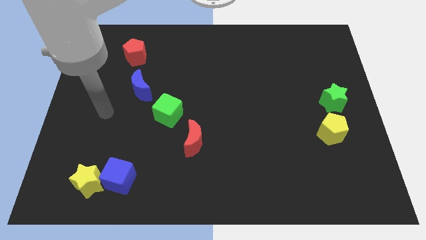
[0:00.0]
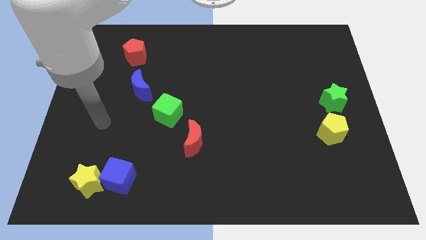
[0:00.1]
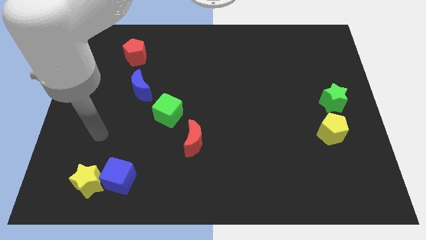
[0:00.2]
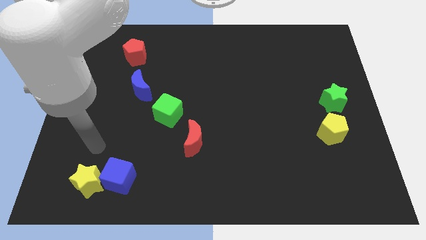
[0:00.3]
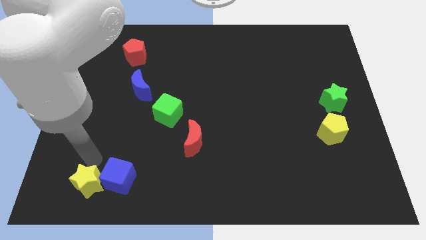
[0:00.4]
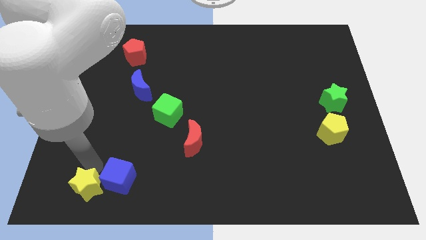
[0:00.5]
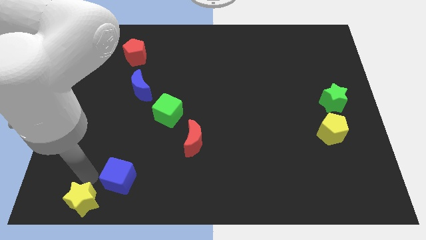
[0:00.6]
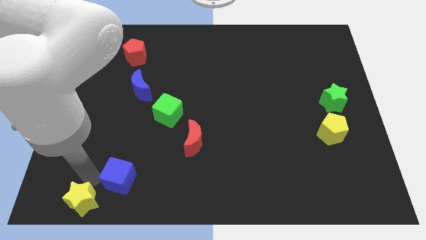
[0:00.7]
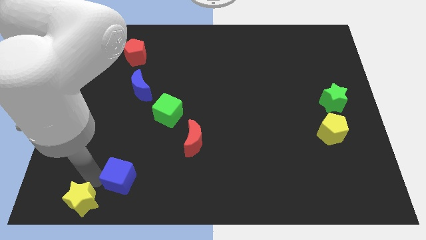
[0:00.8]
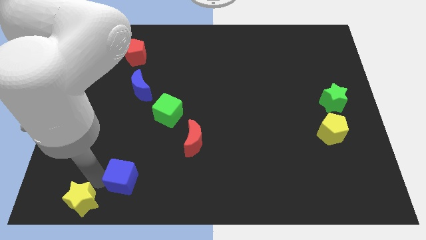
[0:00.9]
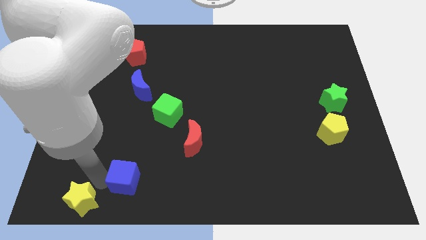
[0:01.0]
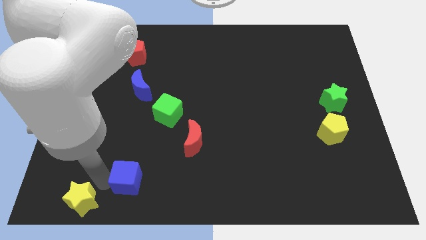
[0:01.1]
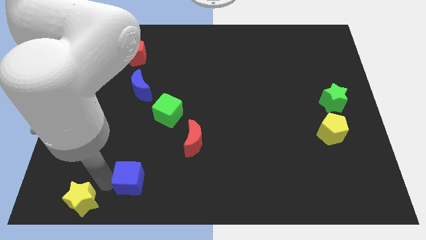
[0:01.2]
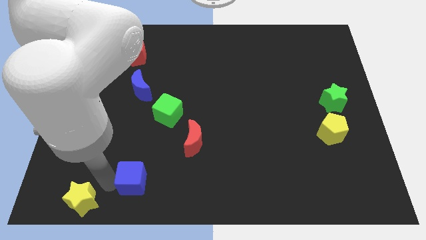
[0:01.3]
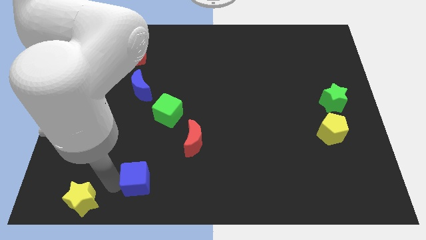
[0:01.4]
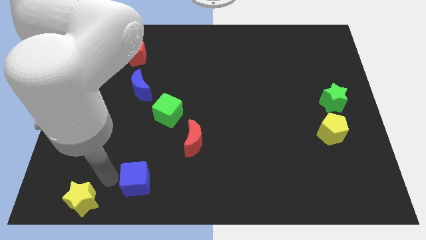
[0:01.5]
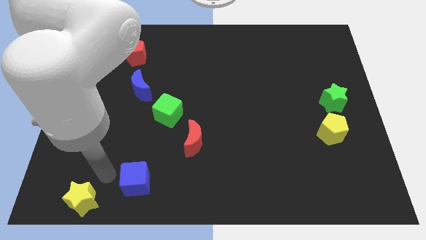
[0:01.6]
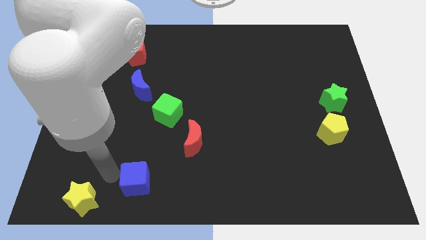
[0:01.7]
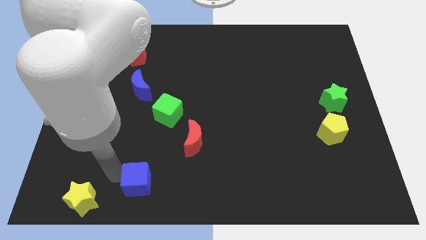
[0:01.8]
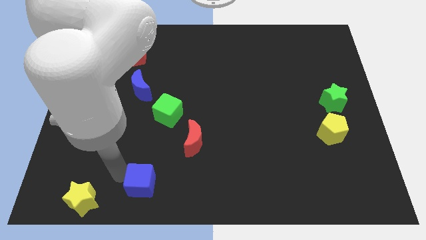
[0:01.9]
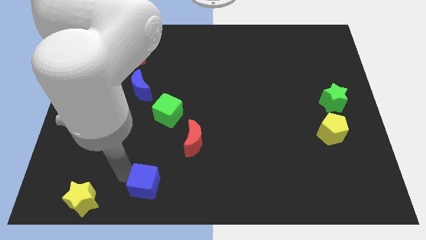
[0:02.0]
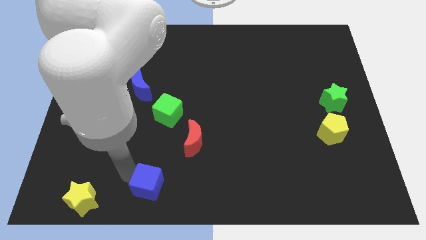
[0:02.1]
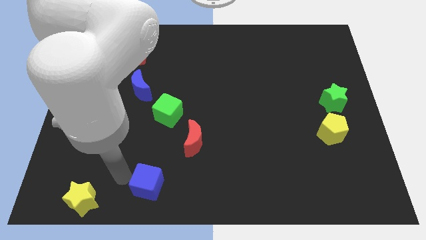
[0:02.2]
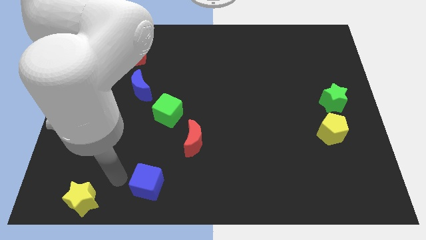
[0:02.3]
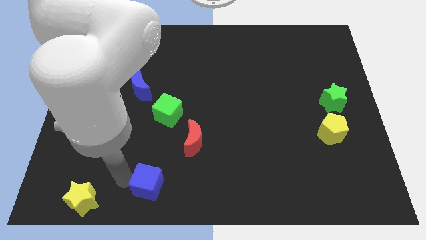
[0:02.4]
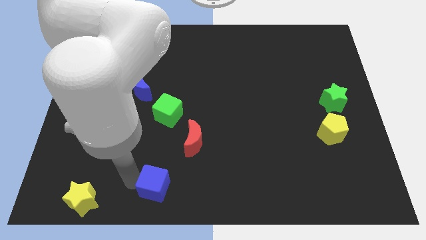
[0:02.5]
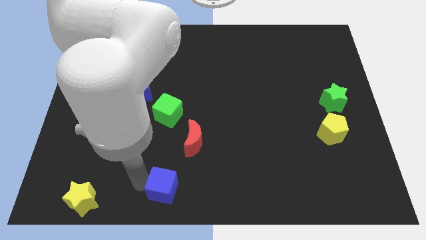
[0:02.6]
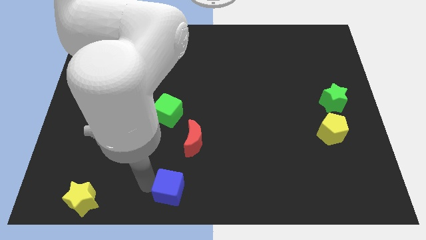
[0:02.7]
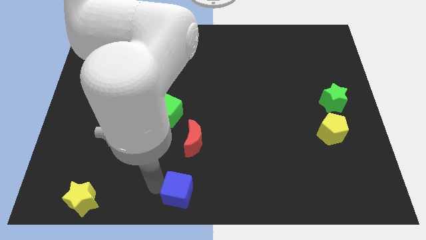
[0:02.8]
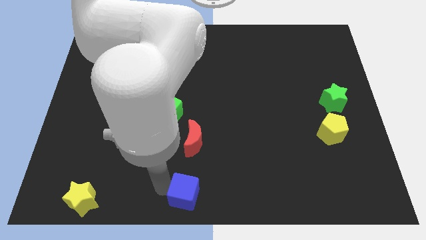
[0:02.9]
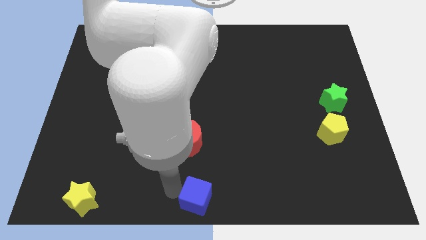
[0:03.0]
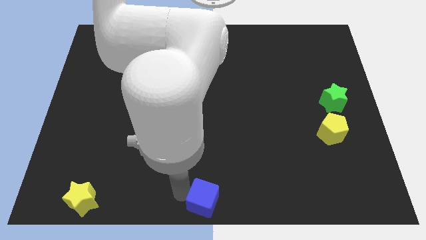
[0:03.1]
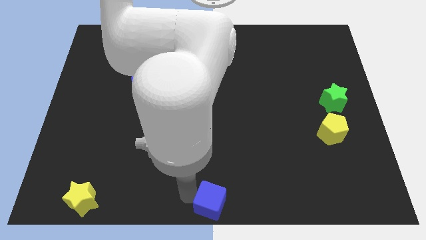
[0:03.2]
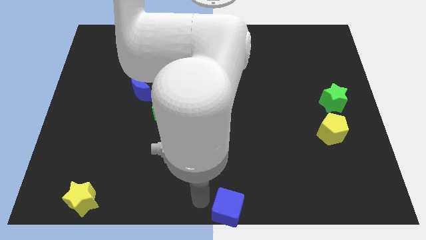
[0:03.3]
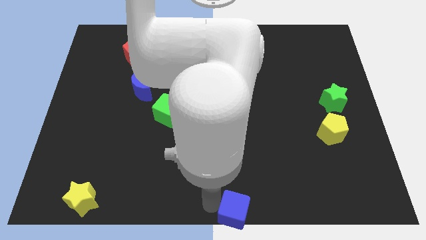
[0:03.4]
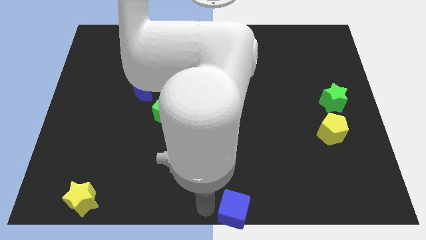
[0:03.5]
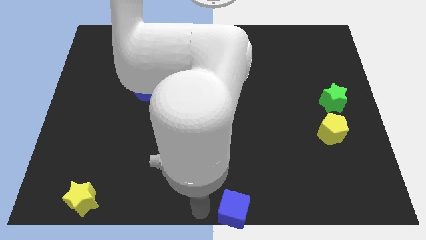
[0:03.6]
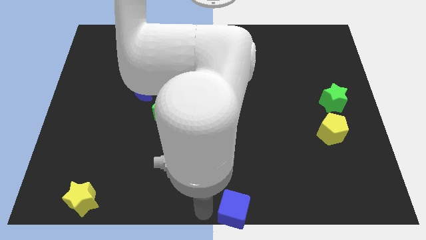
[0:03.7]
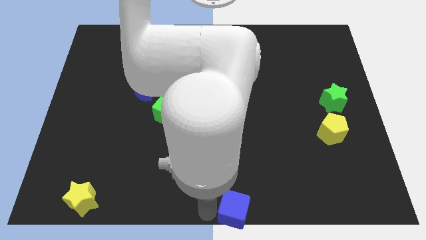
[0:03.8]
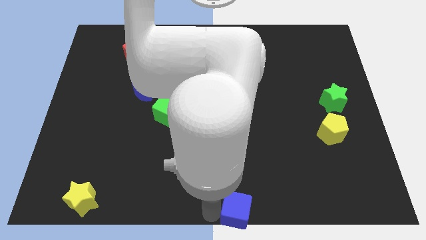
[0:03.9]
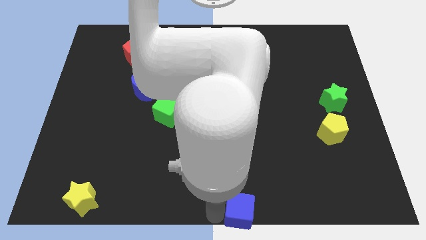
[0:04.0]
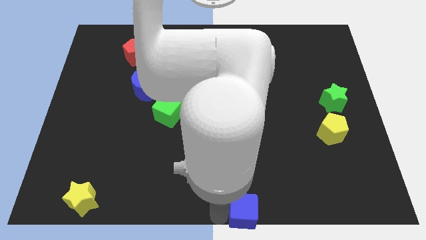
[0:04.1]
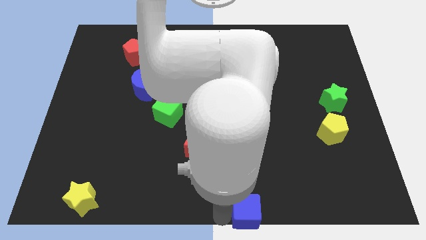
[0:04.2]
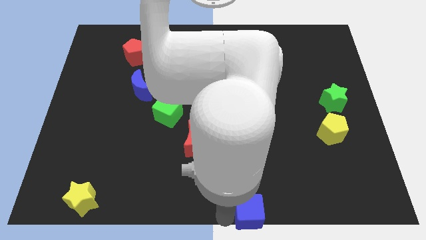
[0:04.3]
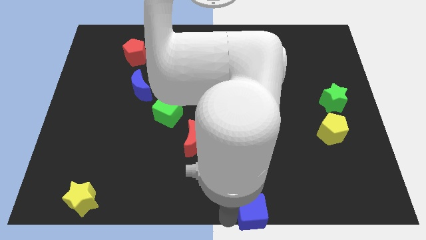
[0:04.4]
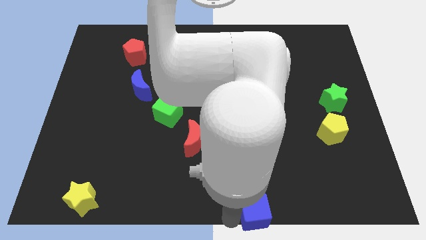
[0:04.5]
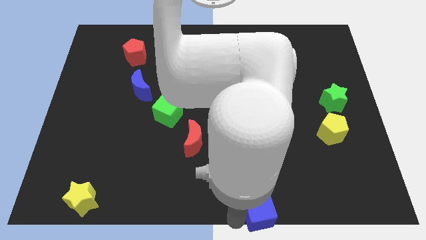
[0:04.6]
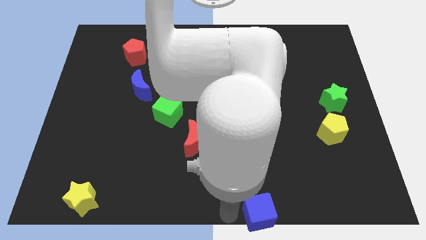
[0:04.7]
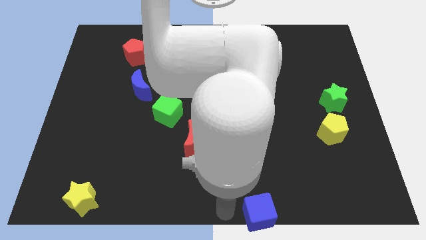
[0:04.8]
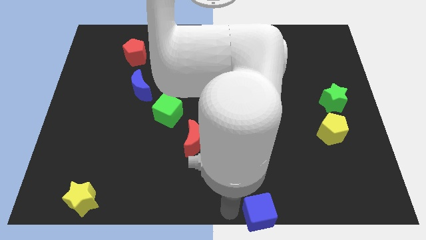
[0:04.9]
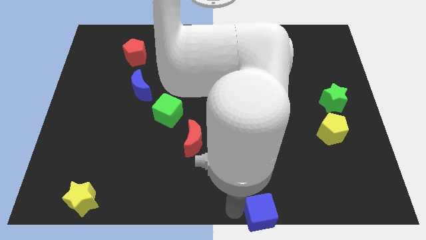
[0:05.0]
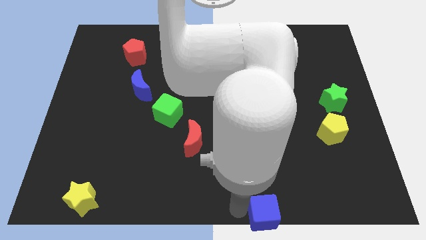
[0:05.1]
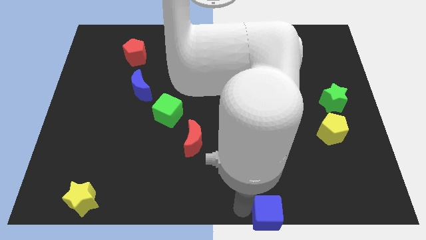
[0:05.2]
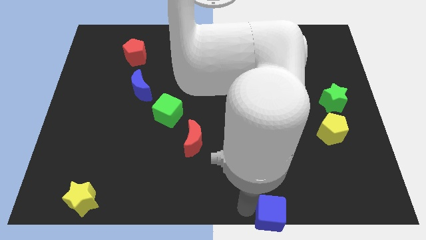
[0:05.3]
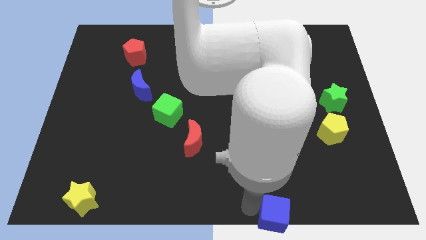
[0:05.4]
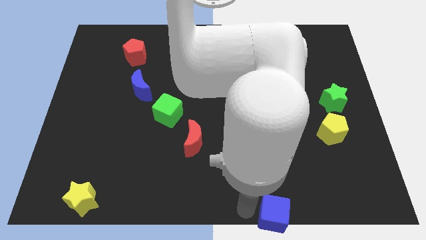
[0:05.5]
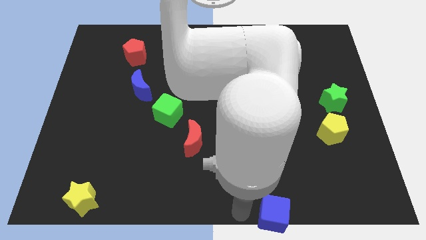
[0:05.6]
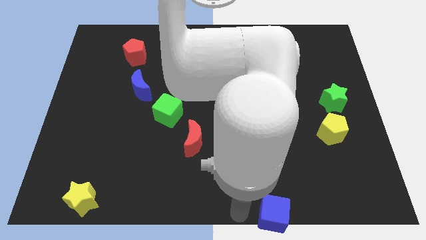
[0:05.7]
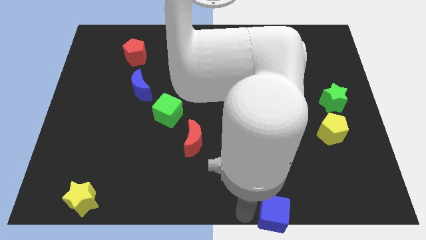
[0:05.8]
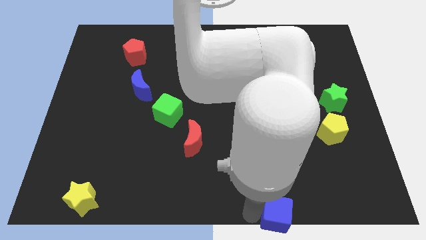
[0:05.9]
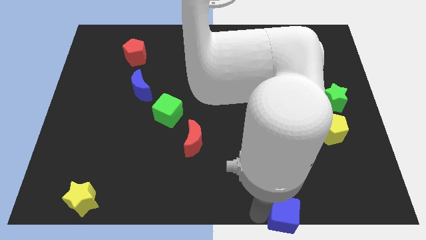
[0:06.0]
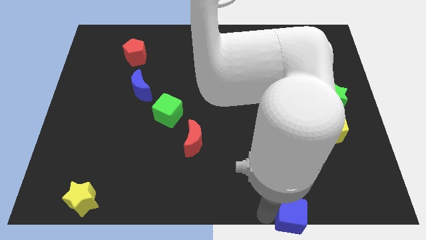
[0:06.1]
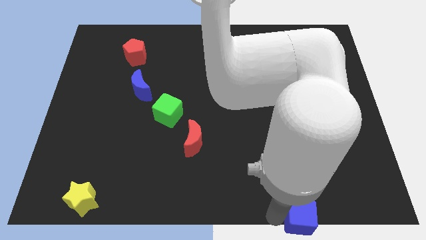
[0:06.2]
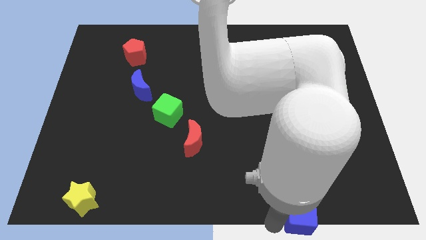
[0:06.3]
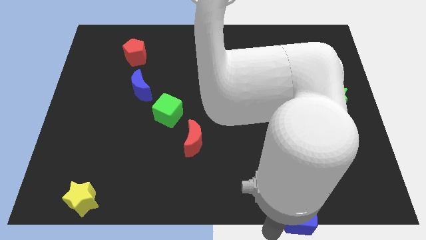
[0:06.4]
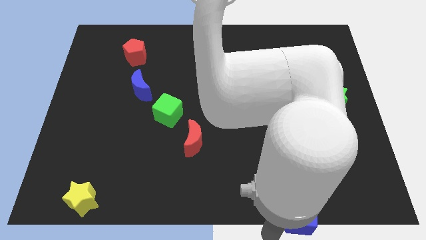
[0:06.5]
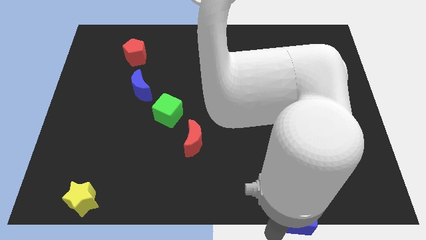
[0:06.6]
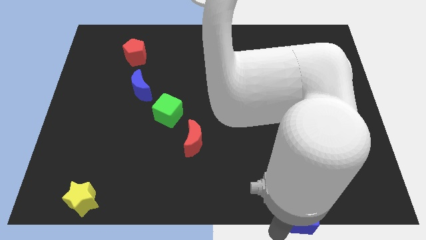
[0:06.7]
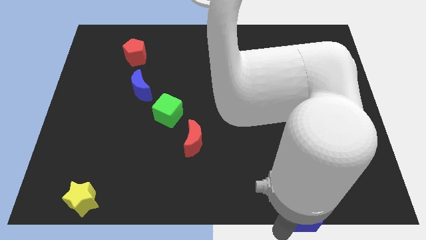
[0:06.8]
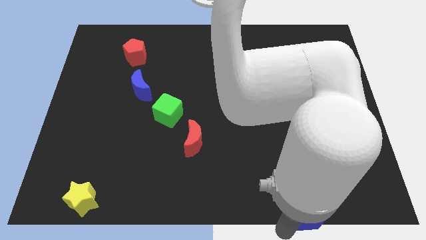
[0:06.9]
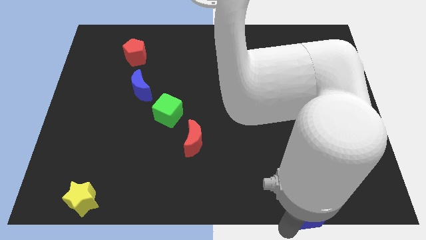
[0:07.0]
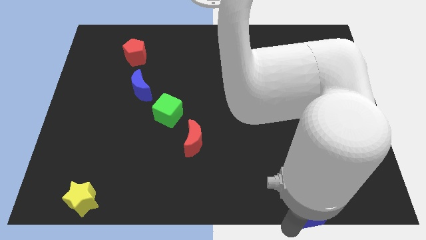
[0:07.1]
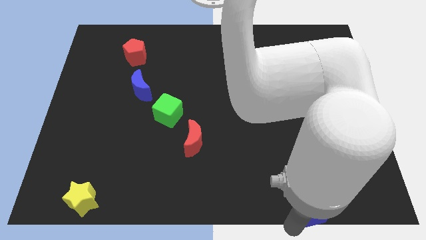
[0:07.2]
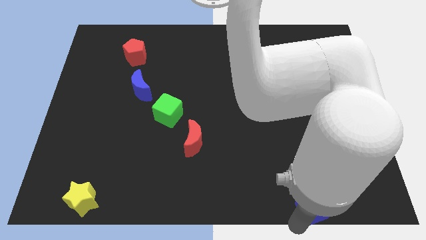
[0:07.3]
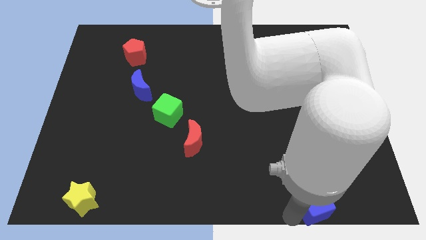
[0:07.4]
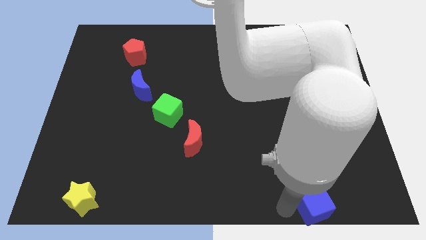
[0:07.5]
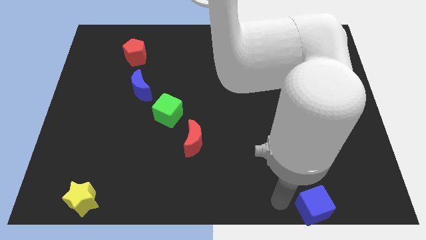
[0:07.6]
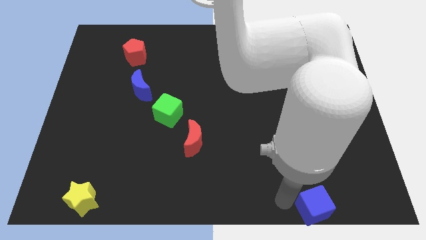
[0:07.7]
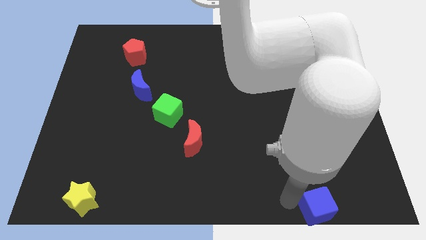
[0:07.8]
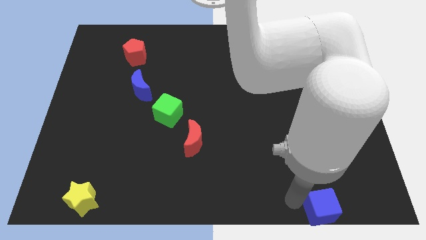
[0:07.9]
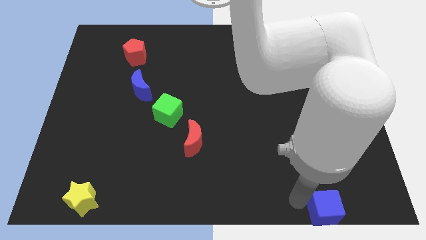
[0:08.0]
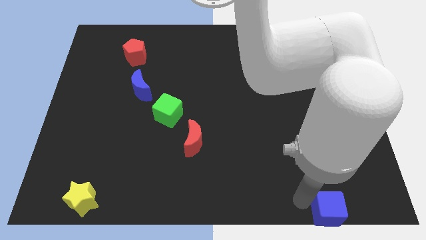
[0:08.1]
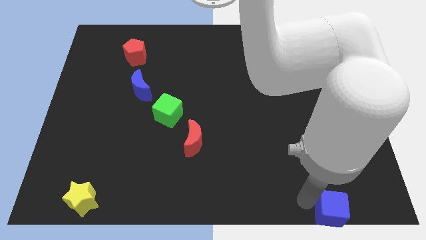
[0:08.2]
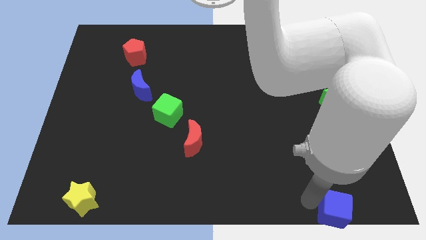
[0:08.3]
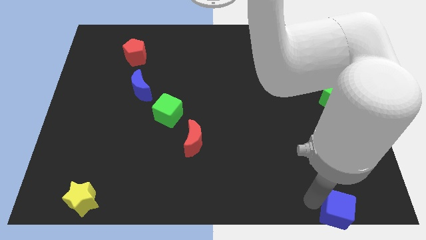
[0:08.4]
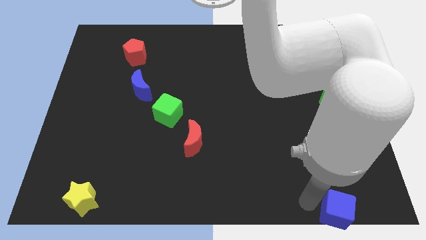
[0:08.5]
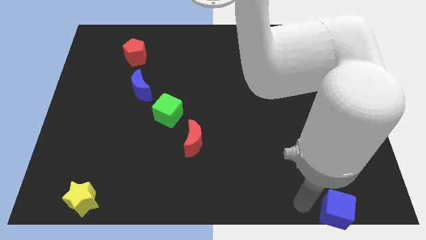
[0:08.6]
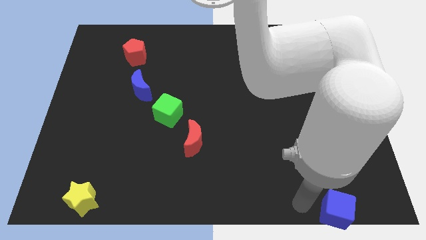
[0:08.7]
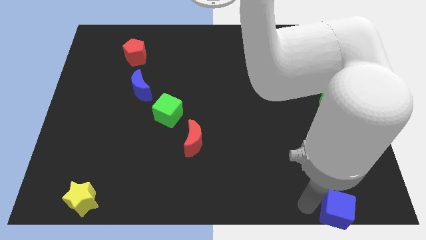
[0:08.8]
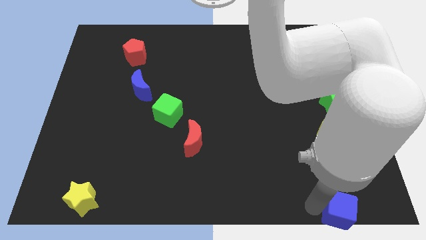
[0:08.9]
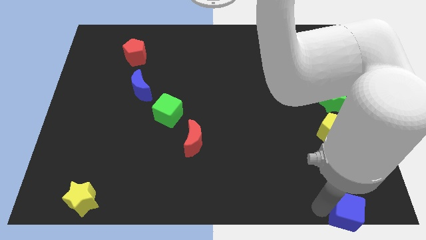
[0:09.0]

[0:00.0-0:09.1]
move the blue cube to the lower right corner
